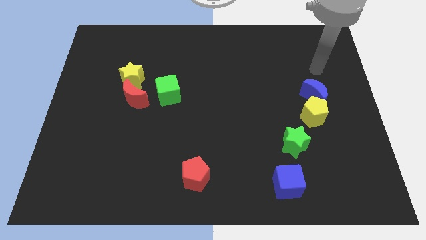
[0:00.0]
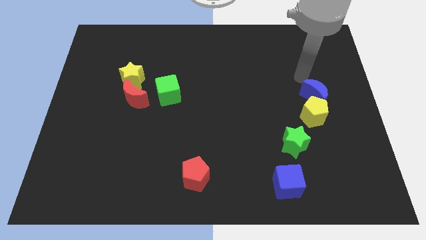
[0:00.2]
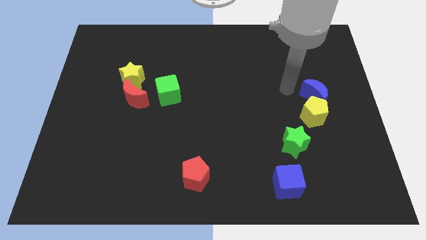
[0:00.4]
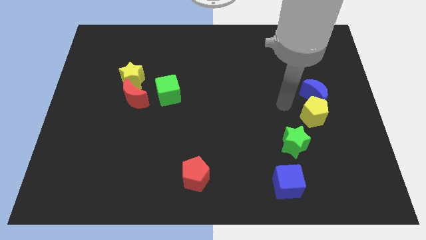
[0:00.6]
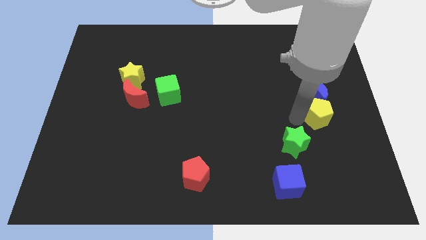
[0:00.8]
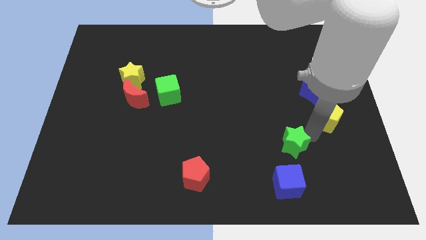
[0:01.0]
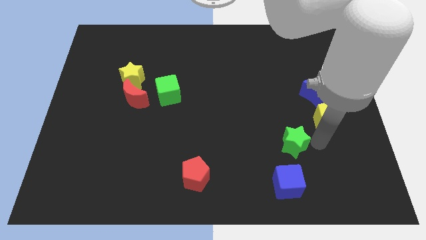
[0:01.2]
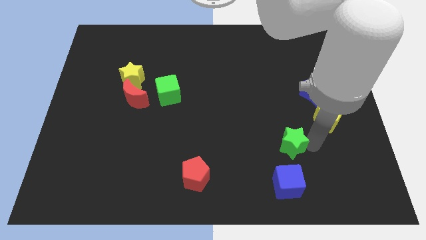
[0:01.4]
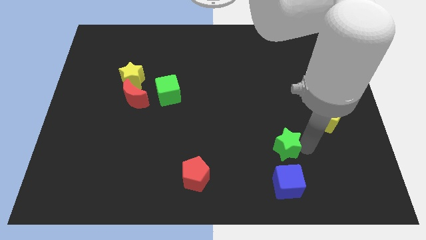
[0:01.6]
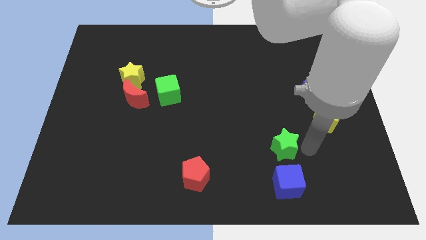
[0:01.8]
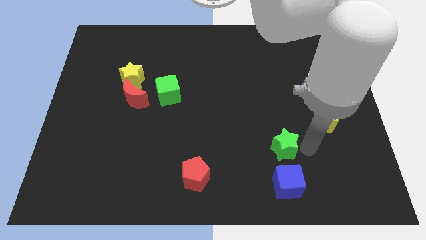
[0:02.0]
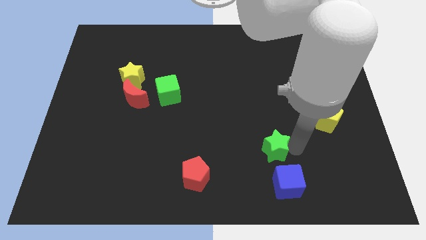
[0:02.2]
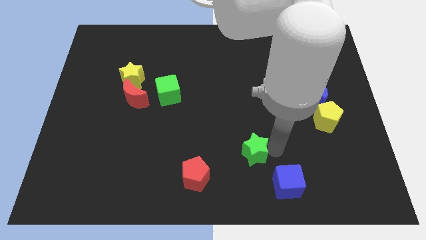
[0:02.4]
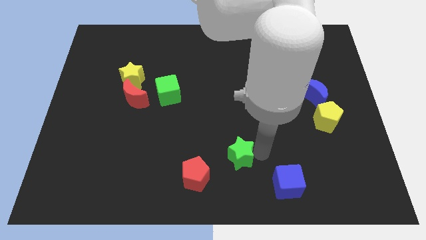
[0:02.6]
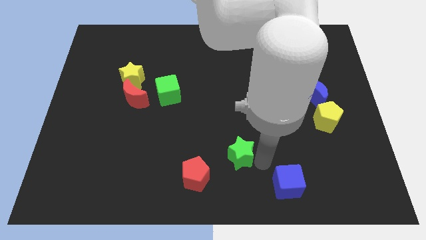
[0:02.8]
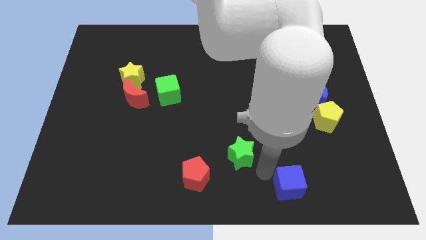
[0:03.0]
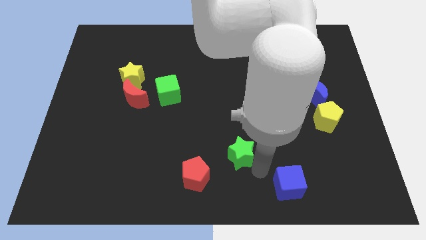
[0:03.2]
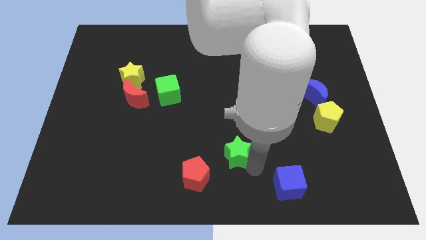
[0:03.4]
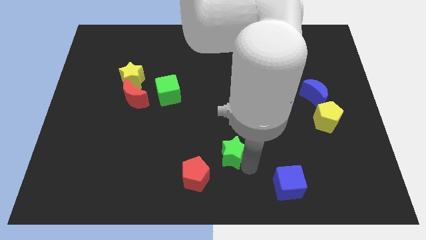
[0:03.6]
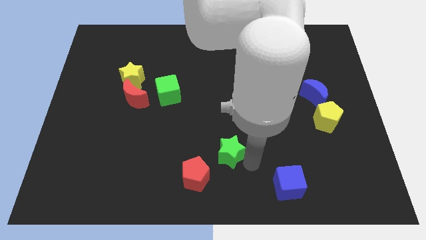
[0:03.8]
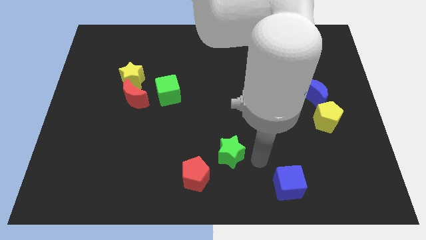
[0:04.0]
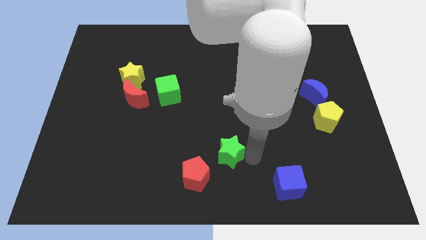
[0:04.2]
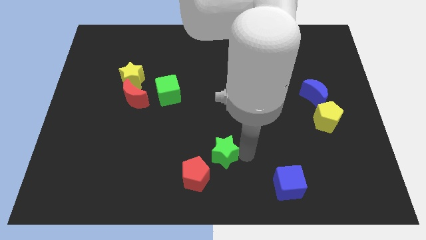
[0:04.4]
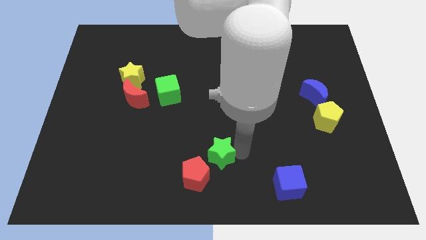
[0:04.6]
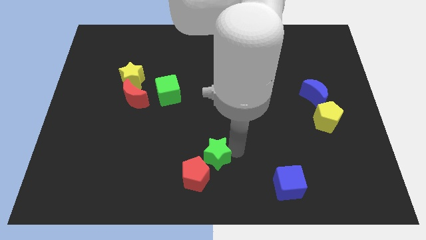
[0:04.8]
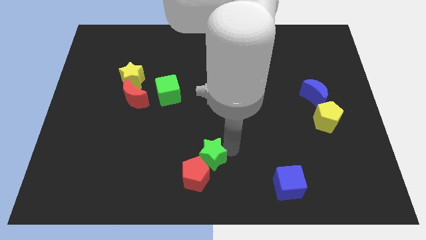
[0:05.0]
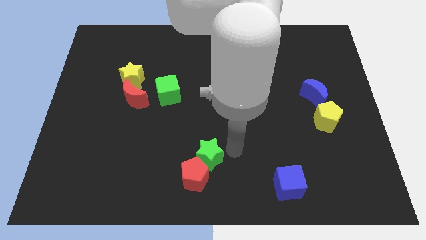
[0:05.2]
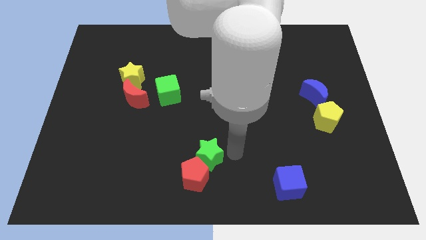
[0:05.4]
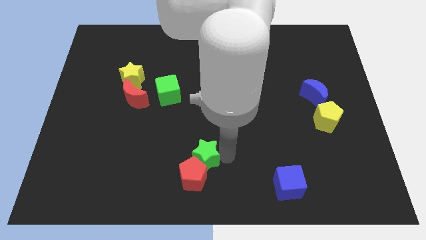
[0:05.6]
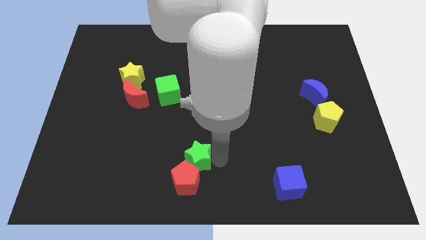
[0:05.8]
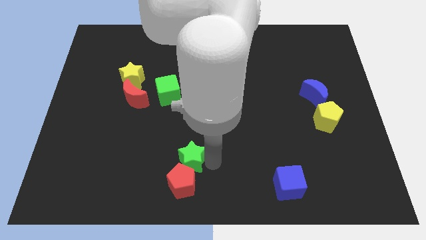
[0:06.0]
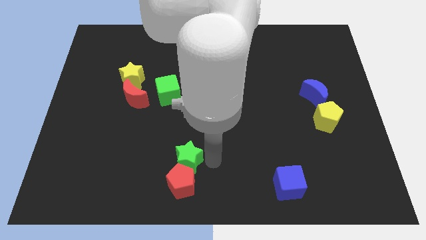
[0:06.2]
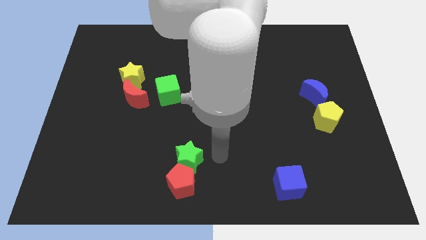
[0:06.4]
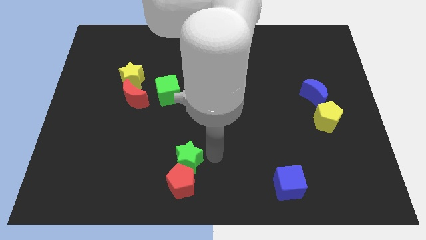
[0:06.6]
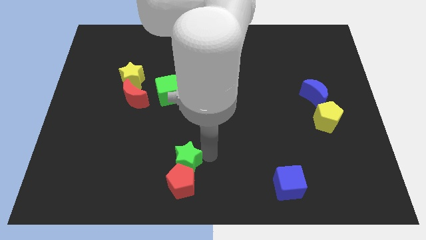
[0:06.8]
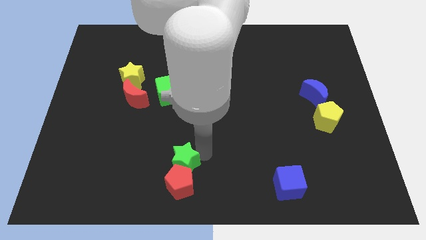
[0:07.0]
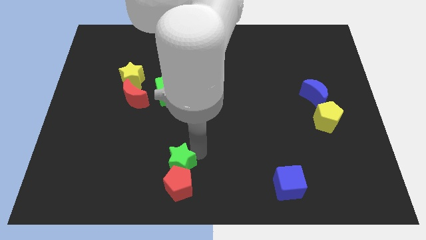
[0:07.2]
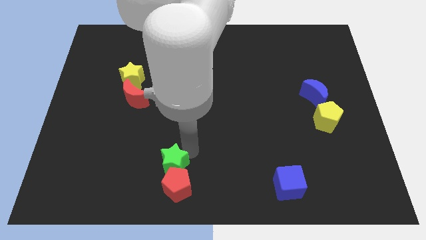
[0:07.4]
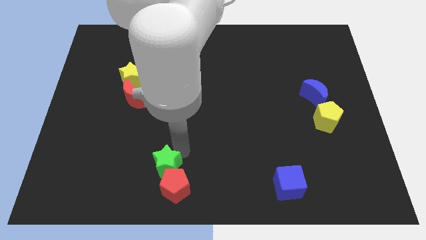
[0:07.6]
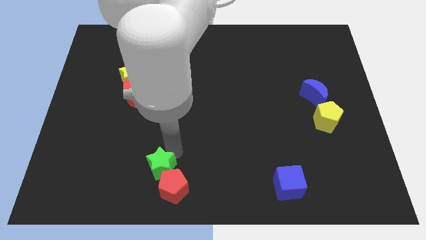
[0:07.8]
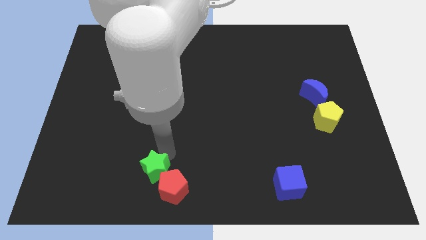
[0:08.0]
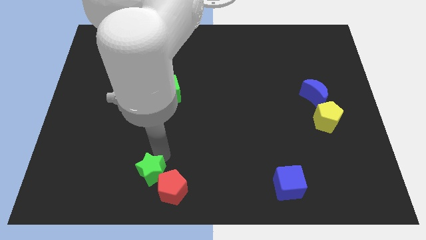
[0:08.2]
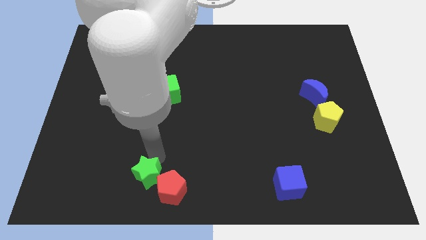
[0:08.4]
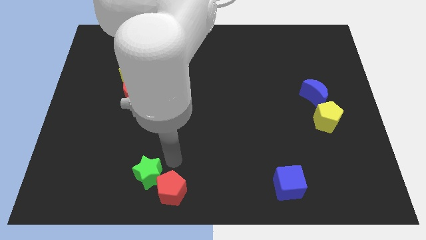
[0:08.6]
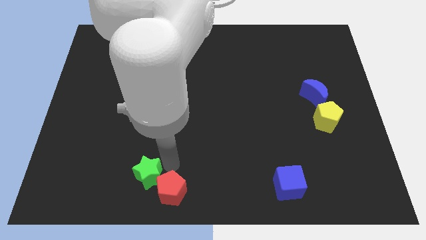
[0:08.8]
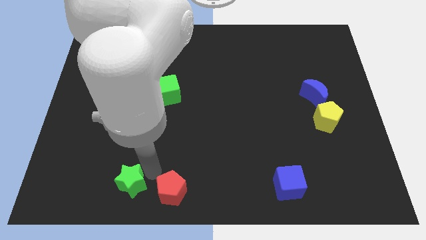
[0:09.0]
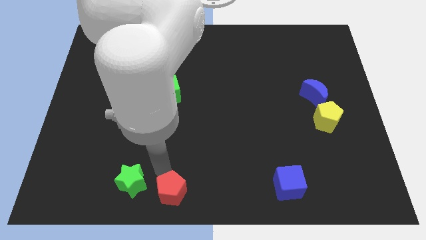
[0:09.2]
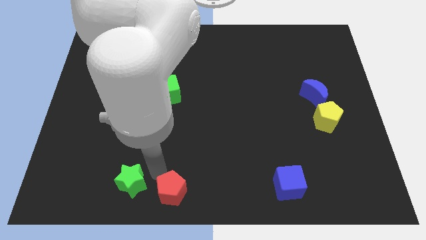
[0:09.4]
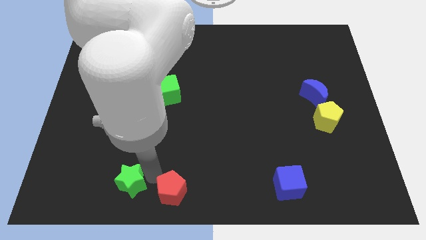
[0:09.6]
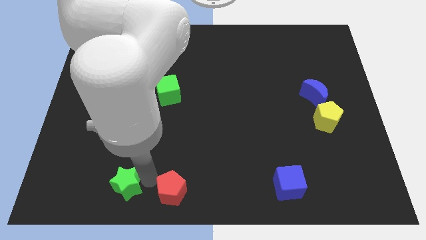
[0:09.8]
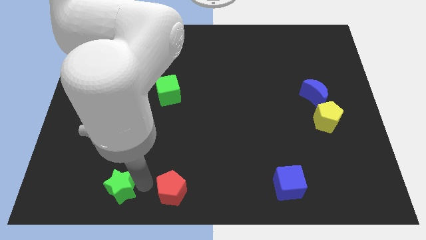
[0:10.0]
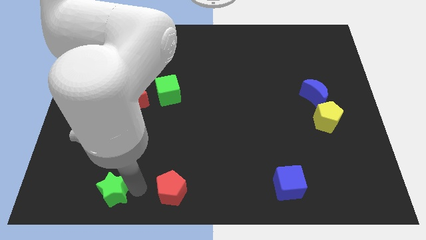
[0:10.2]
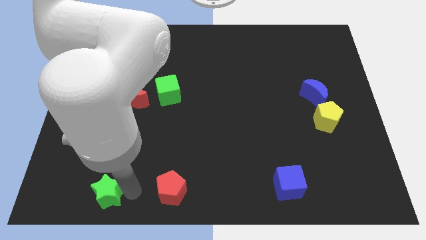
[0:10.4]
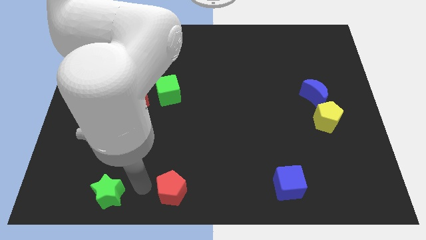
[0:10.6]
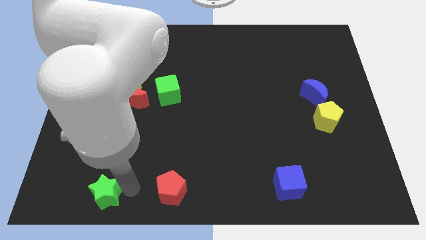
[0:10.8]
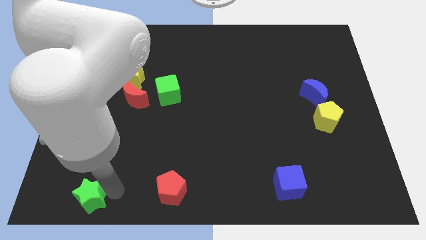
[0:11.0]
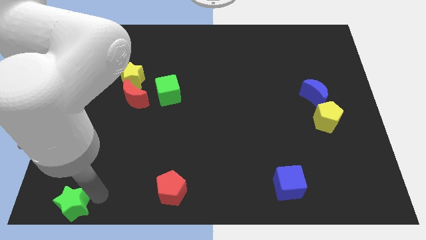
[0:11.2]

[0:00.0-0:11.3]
move the green star to the bottom left
